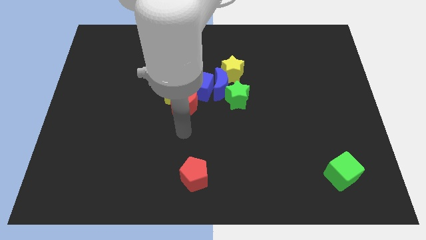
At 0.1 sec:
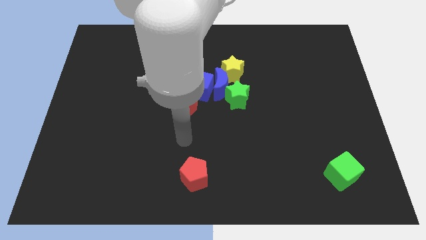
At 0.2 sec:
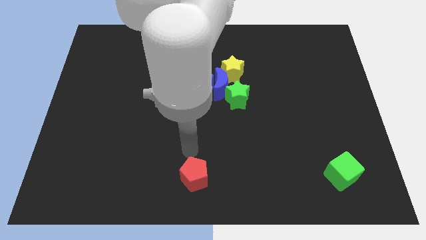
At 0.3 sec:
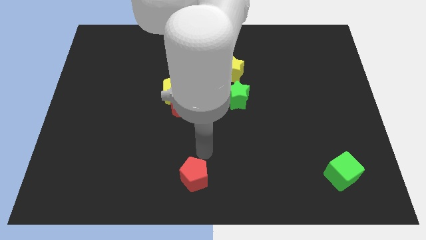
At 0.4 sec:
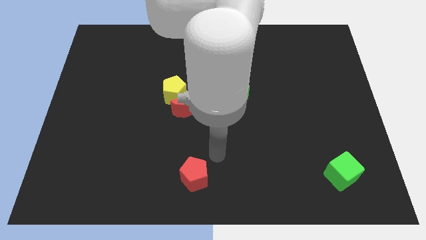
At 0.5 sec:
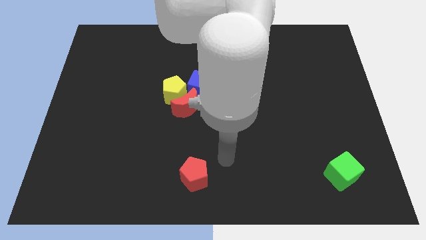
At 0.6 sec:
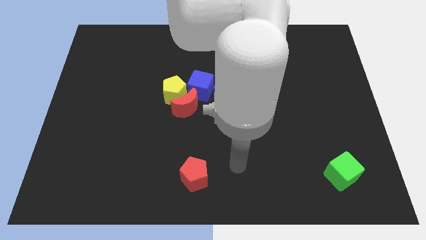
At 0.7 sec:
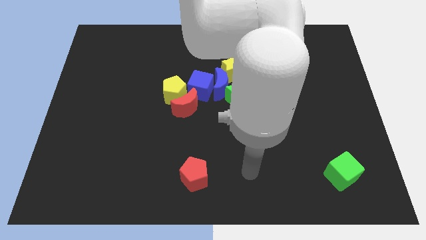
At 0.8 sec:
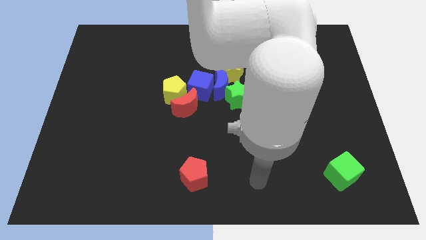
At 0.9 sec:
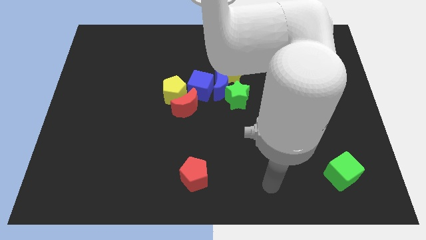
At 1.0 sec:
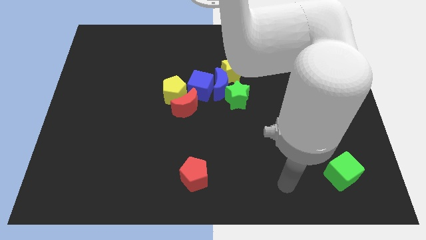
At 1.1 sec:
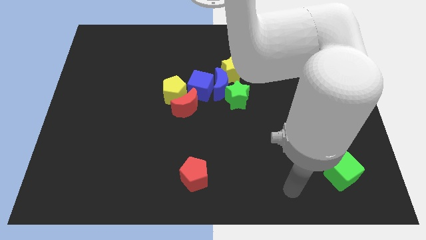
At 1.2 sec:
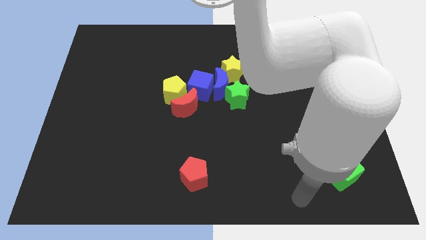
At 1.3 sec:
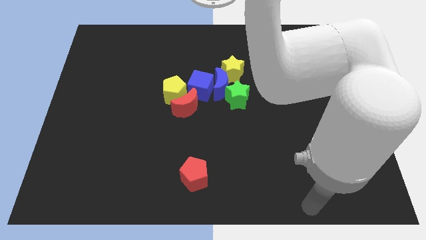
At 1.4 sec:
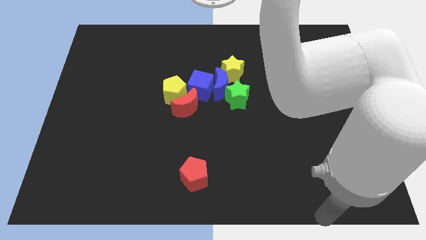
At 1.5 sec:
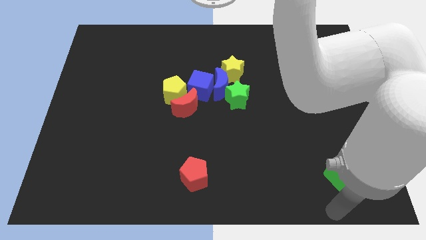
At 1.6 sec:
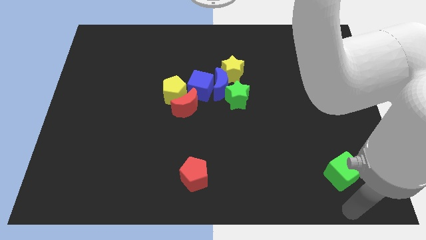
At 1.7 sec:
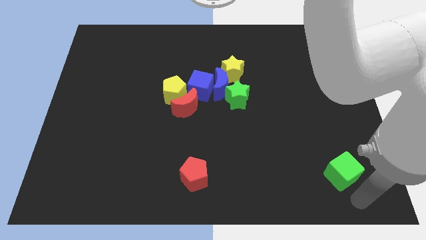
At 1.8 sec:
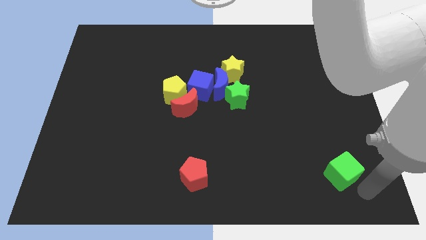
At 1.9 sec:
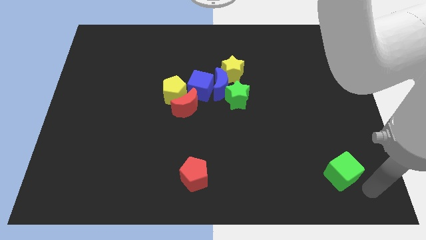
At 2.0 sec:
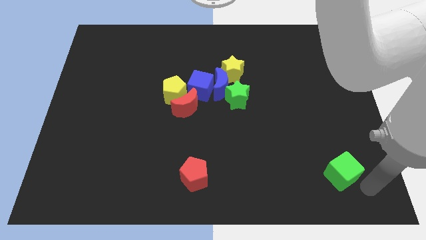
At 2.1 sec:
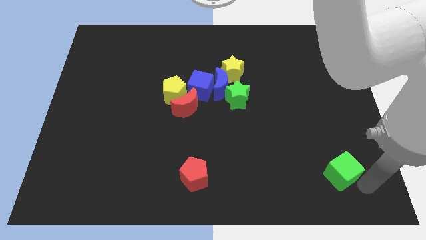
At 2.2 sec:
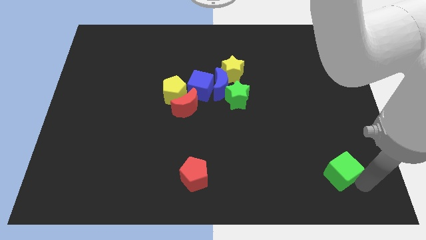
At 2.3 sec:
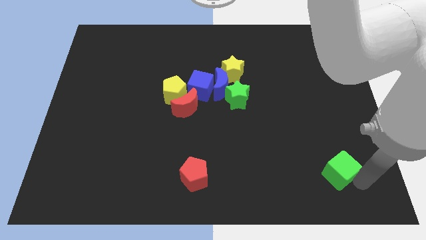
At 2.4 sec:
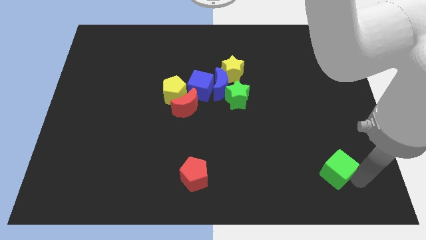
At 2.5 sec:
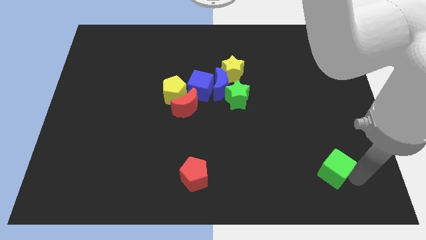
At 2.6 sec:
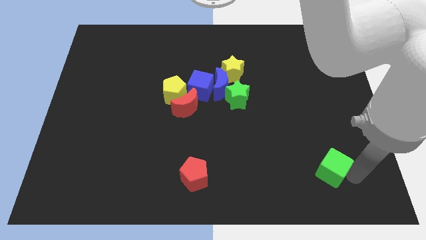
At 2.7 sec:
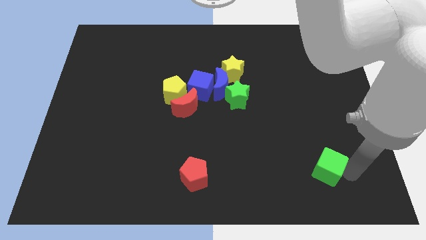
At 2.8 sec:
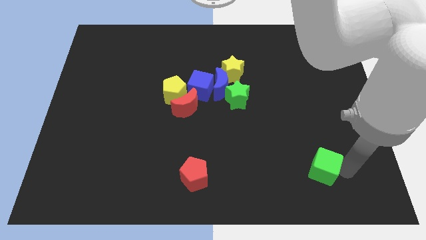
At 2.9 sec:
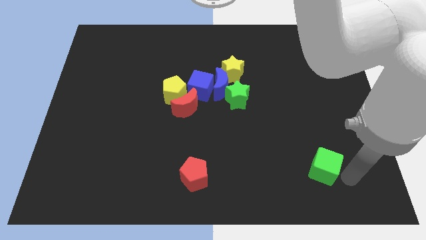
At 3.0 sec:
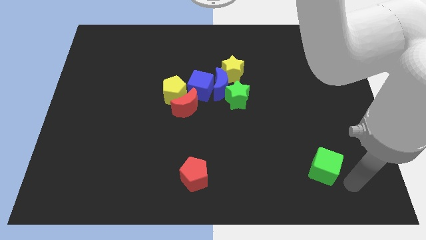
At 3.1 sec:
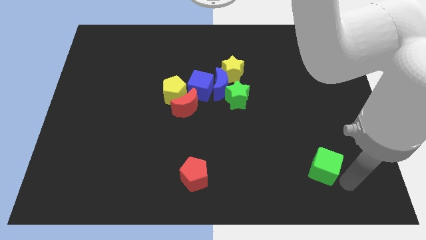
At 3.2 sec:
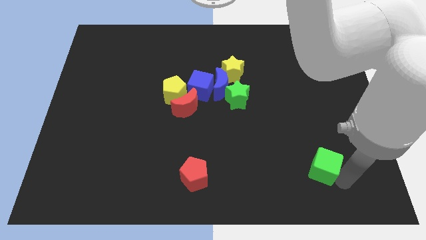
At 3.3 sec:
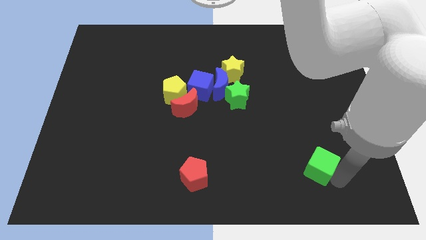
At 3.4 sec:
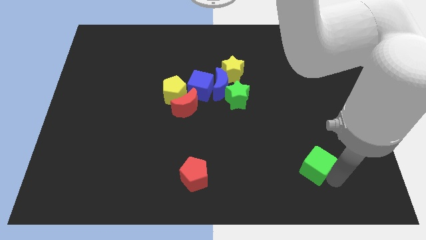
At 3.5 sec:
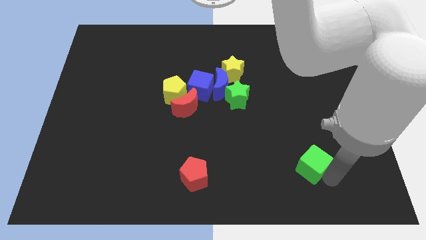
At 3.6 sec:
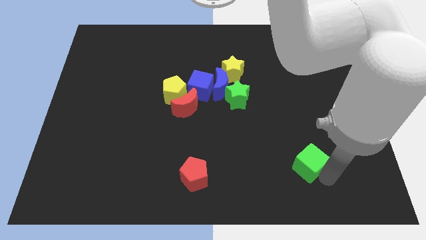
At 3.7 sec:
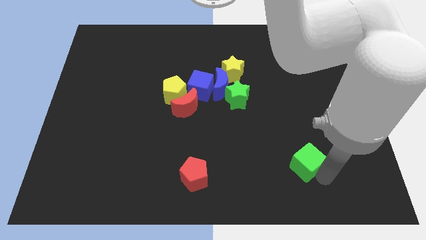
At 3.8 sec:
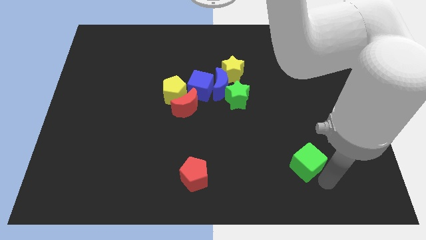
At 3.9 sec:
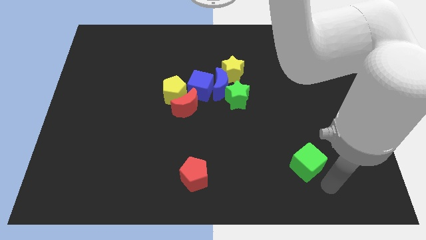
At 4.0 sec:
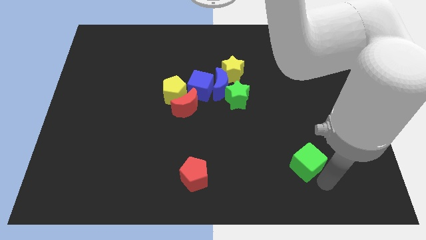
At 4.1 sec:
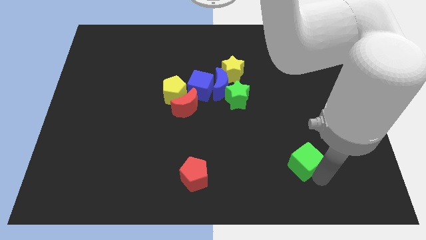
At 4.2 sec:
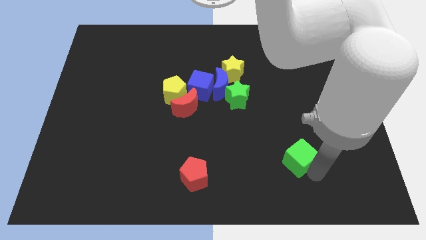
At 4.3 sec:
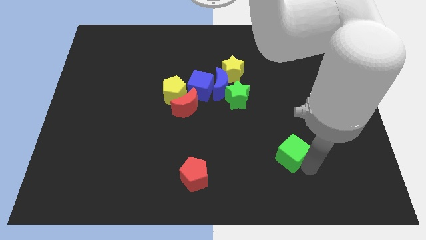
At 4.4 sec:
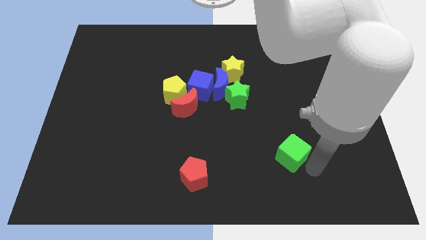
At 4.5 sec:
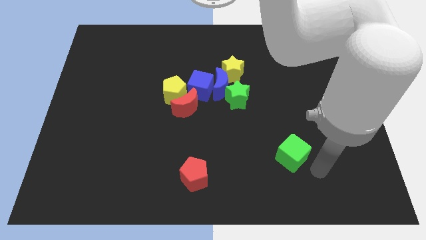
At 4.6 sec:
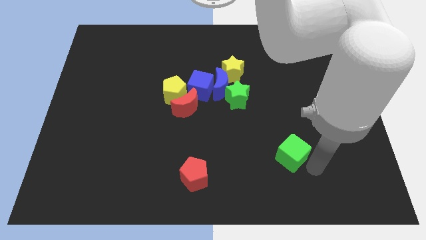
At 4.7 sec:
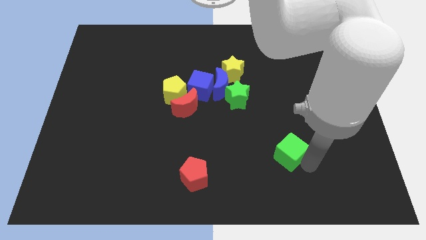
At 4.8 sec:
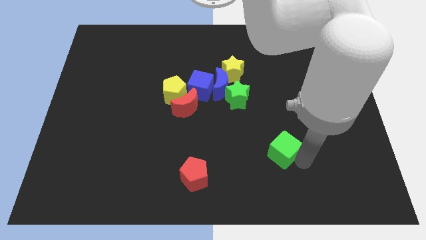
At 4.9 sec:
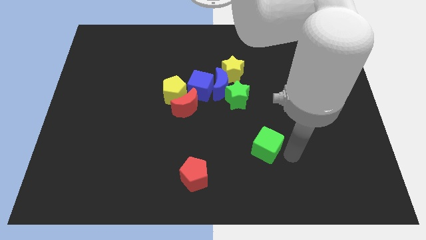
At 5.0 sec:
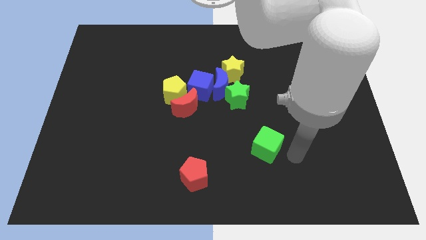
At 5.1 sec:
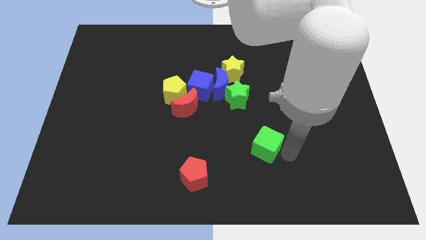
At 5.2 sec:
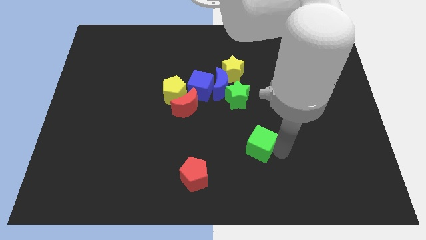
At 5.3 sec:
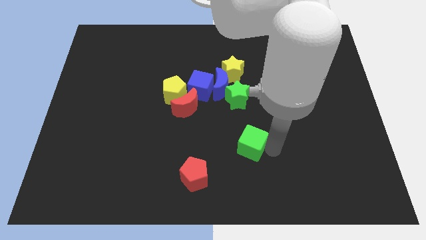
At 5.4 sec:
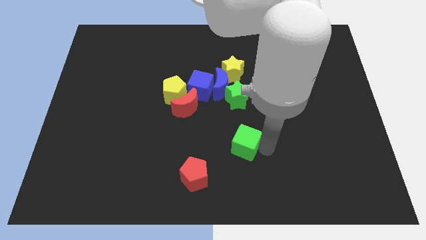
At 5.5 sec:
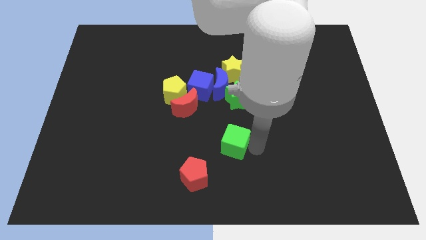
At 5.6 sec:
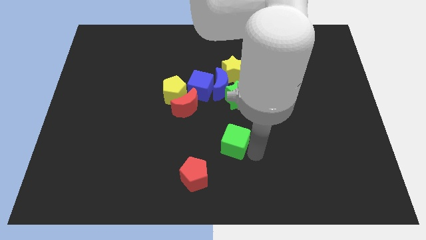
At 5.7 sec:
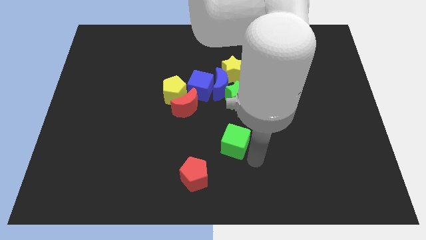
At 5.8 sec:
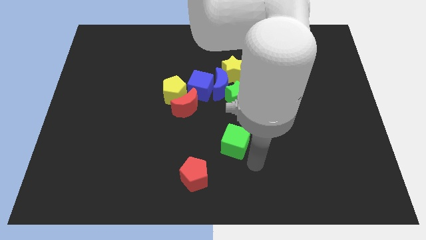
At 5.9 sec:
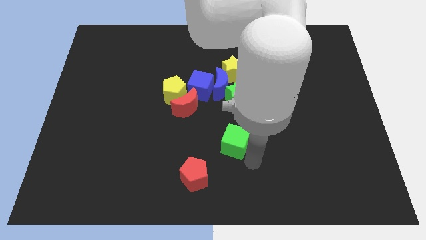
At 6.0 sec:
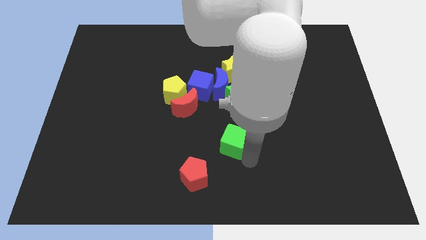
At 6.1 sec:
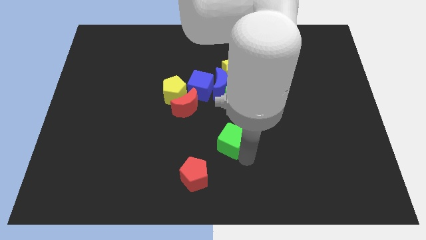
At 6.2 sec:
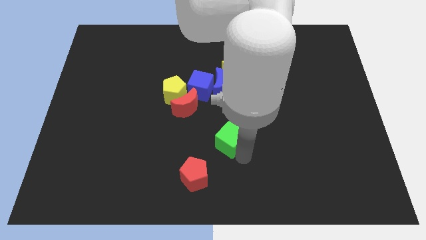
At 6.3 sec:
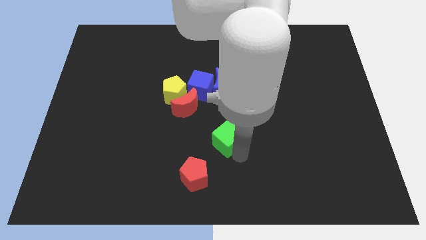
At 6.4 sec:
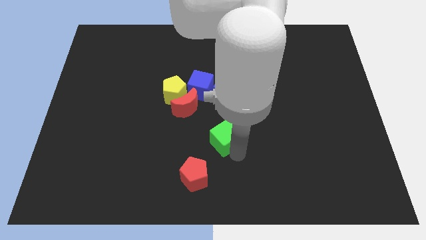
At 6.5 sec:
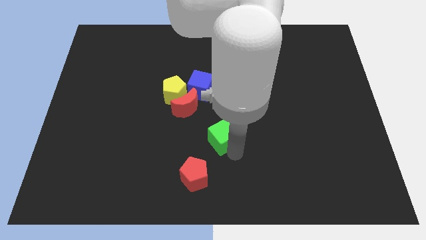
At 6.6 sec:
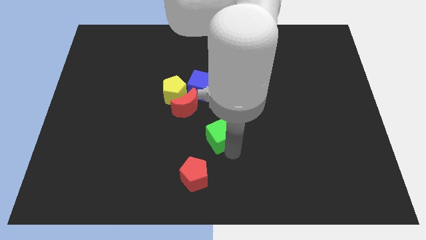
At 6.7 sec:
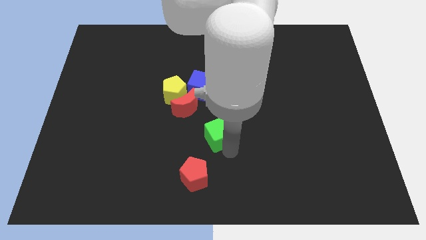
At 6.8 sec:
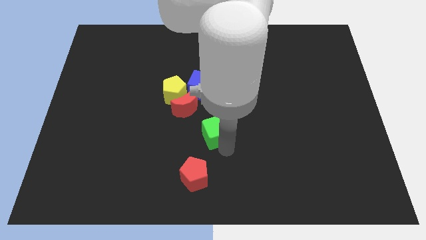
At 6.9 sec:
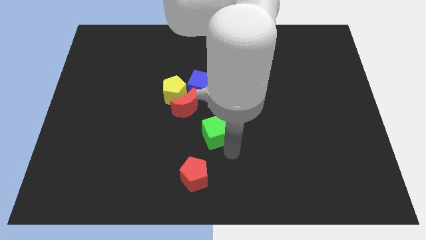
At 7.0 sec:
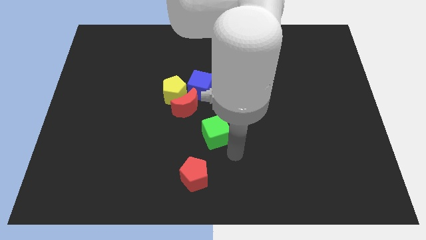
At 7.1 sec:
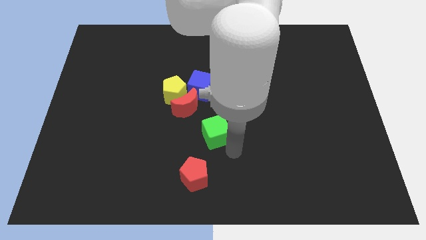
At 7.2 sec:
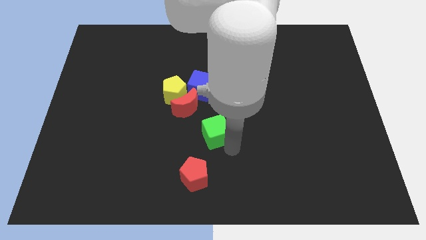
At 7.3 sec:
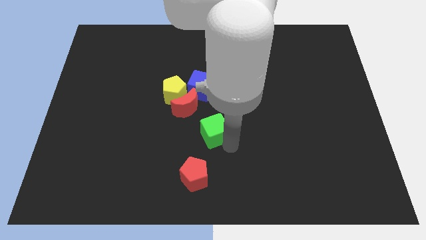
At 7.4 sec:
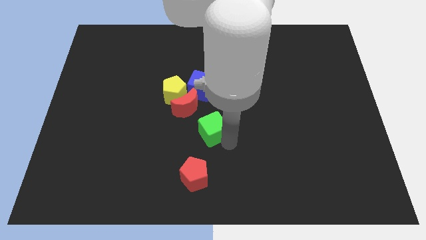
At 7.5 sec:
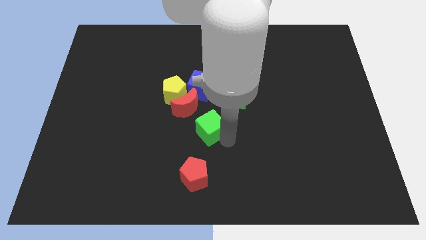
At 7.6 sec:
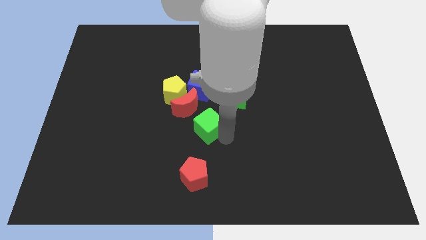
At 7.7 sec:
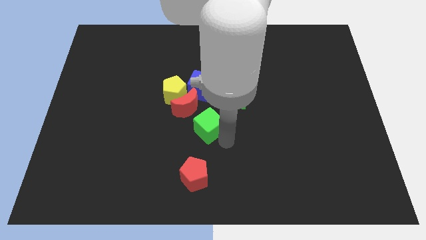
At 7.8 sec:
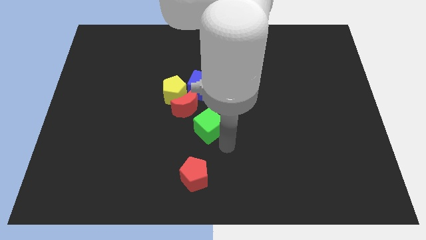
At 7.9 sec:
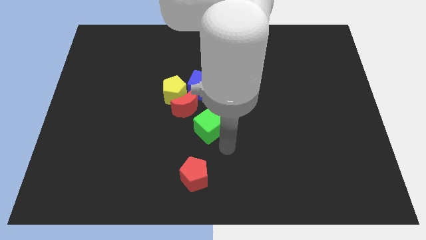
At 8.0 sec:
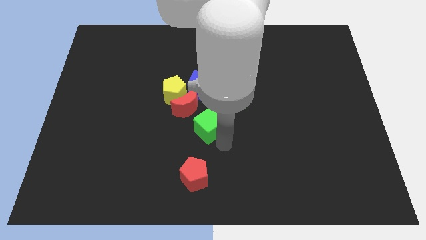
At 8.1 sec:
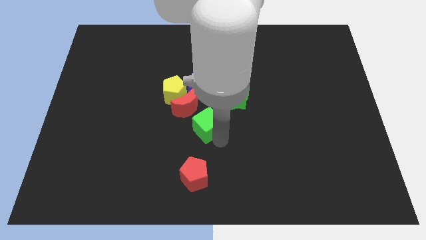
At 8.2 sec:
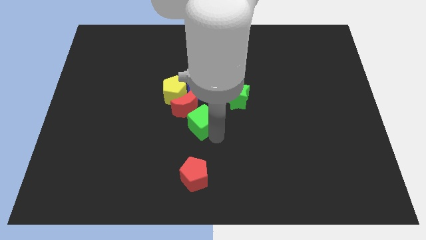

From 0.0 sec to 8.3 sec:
slide the green cube towards the red moon
